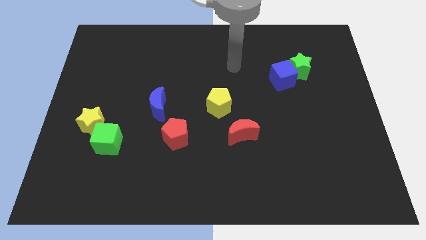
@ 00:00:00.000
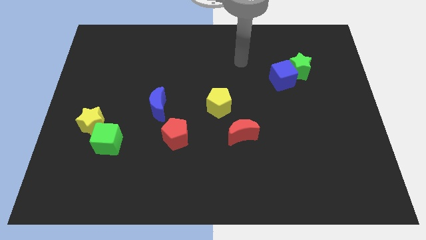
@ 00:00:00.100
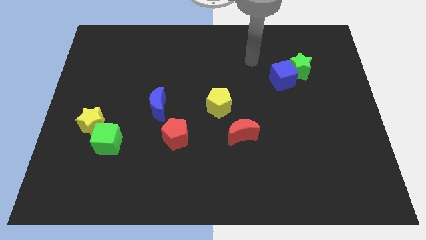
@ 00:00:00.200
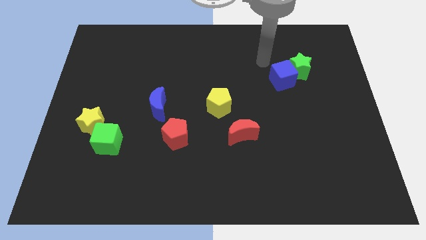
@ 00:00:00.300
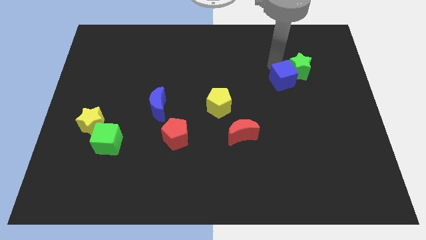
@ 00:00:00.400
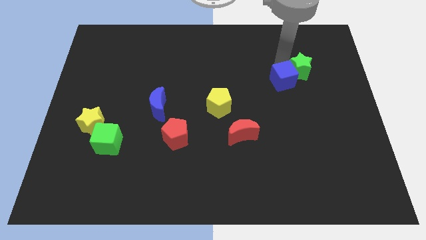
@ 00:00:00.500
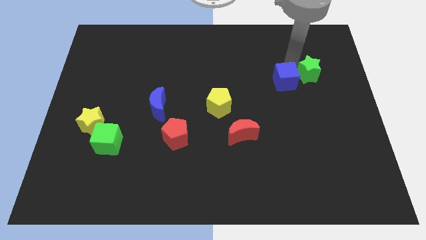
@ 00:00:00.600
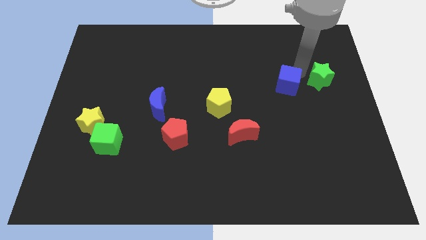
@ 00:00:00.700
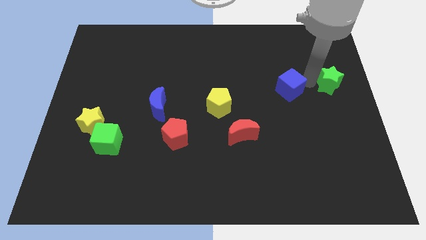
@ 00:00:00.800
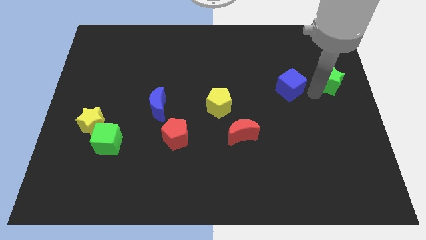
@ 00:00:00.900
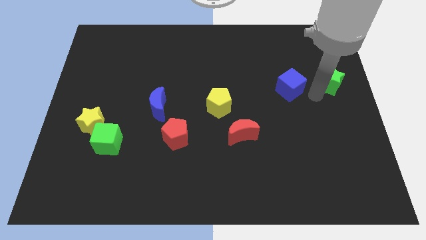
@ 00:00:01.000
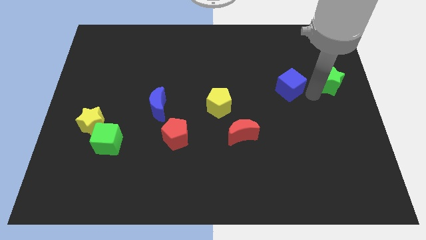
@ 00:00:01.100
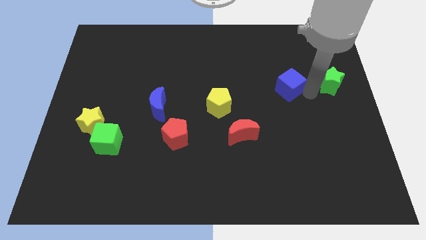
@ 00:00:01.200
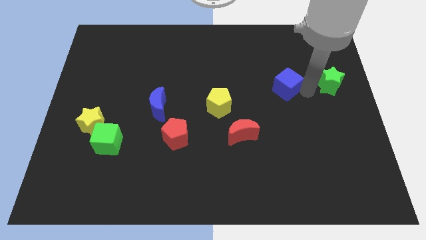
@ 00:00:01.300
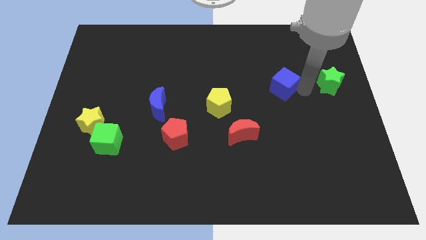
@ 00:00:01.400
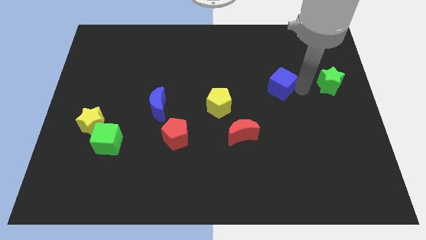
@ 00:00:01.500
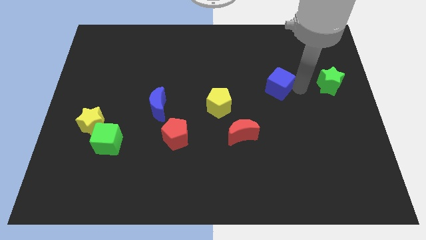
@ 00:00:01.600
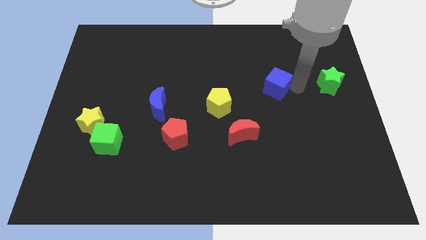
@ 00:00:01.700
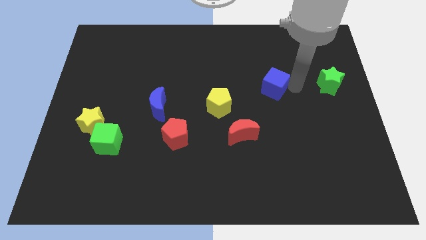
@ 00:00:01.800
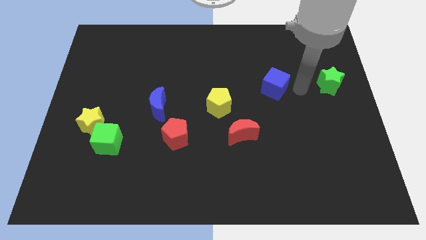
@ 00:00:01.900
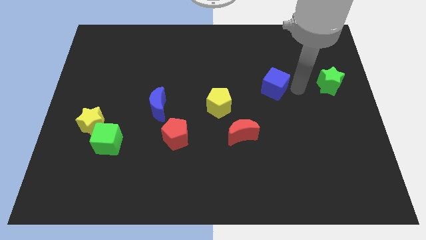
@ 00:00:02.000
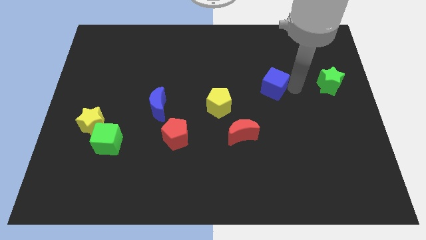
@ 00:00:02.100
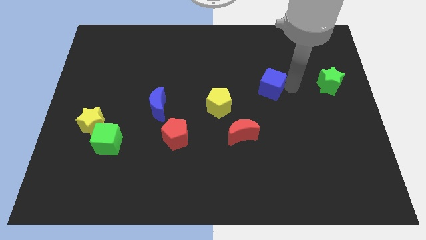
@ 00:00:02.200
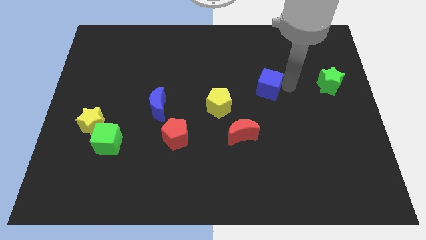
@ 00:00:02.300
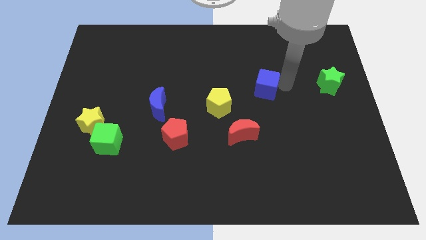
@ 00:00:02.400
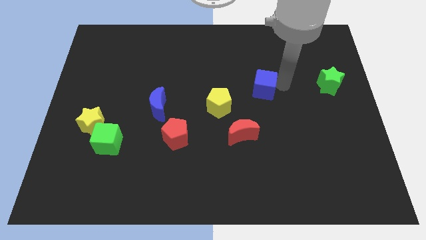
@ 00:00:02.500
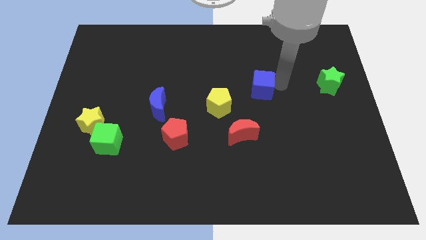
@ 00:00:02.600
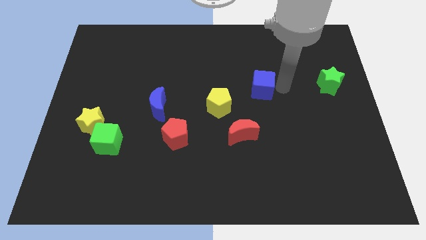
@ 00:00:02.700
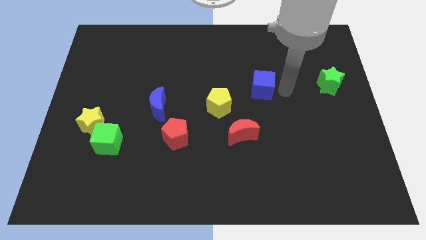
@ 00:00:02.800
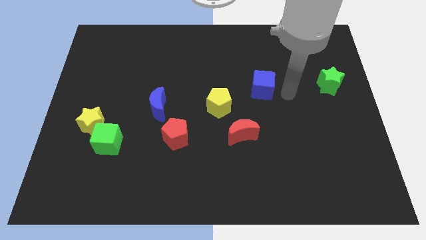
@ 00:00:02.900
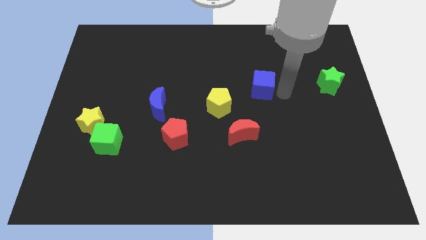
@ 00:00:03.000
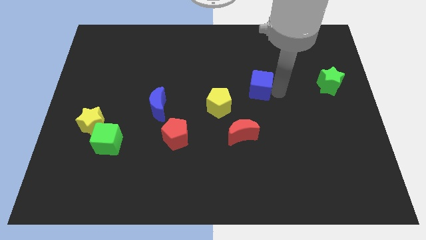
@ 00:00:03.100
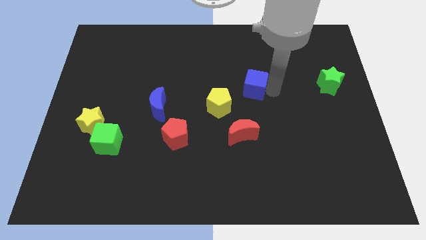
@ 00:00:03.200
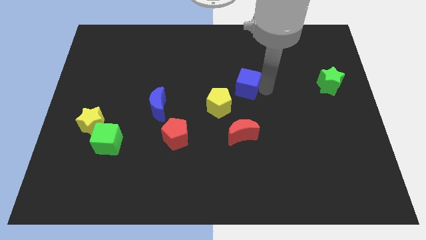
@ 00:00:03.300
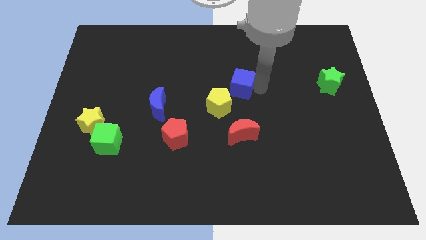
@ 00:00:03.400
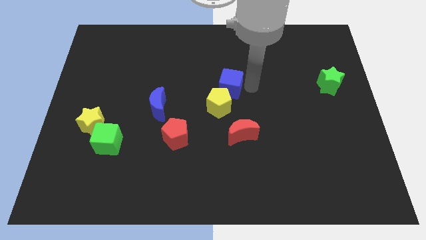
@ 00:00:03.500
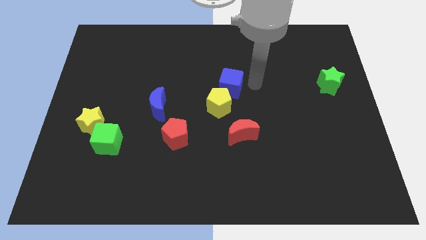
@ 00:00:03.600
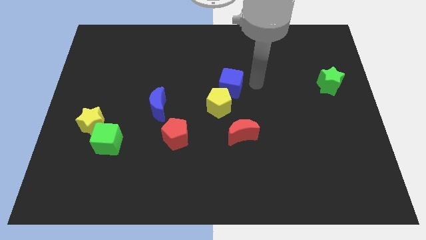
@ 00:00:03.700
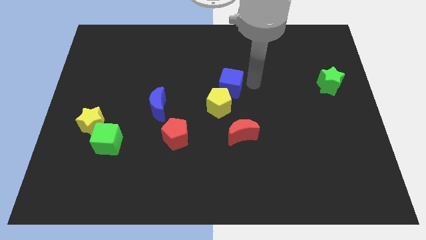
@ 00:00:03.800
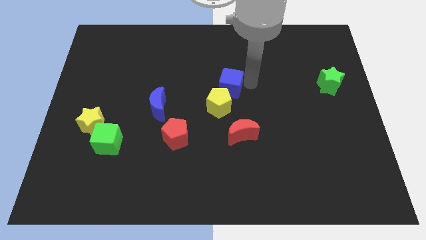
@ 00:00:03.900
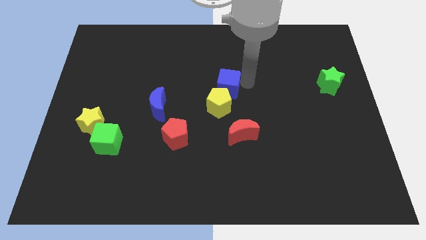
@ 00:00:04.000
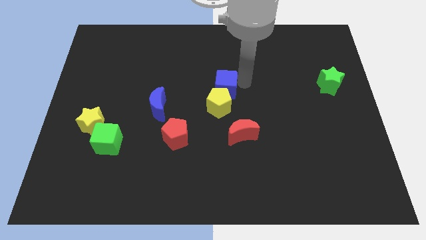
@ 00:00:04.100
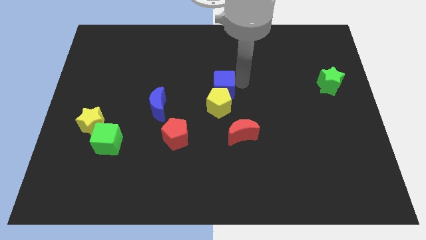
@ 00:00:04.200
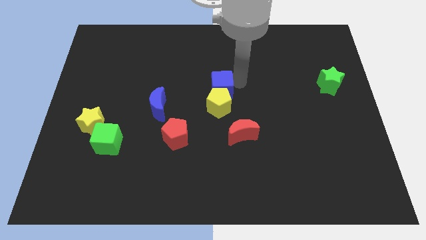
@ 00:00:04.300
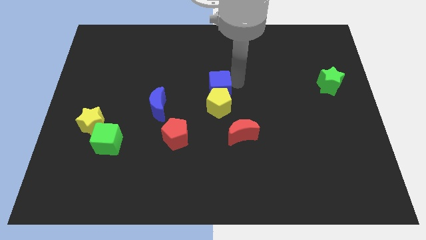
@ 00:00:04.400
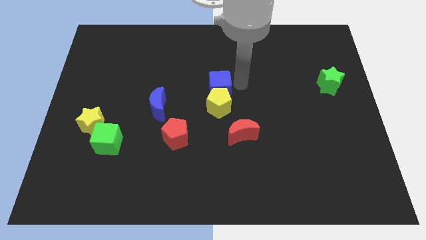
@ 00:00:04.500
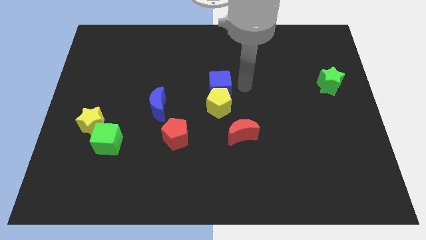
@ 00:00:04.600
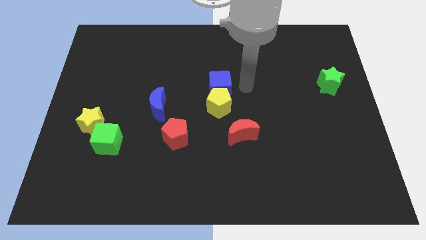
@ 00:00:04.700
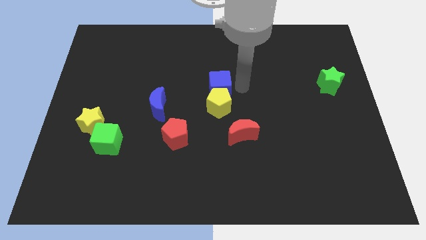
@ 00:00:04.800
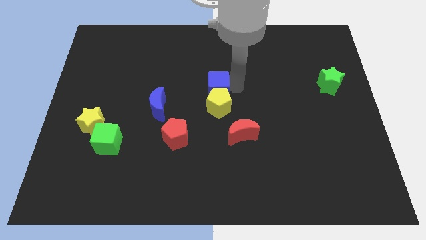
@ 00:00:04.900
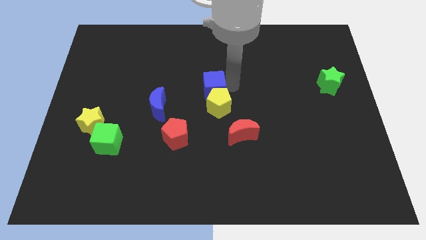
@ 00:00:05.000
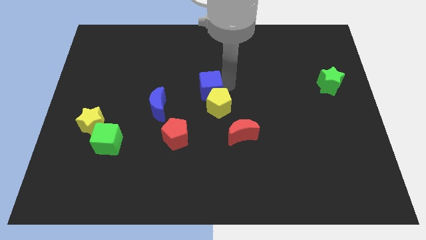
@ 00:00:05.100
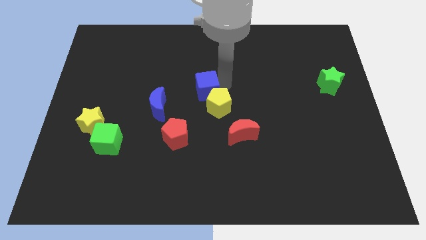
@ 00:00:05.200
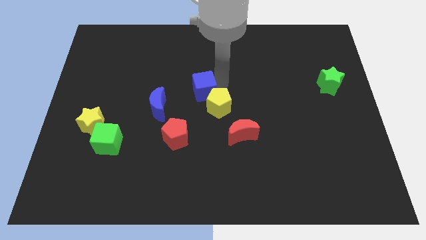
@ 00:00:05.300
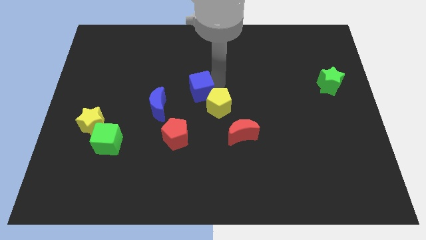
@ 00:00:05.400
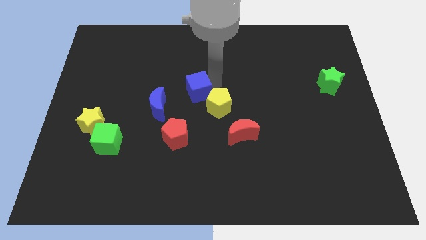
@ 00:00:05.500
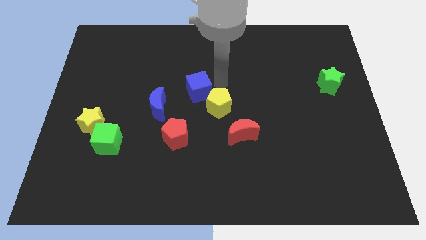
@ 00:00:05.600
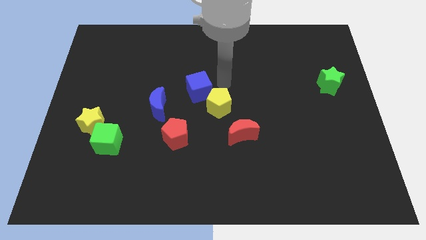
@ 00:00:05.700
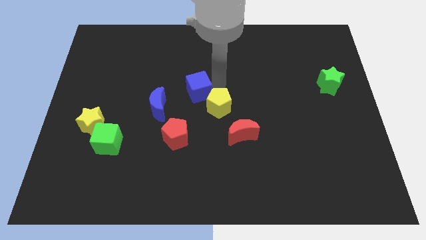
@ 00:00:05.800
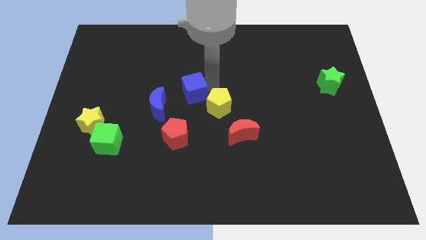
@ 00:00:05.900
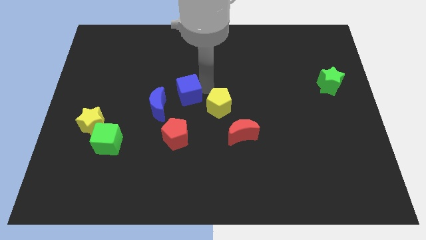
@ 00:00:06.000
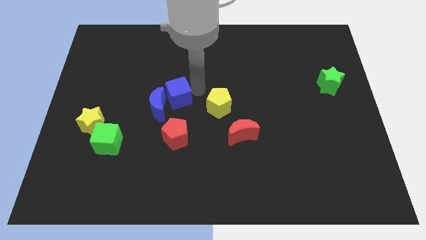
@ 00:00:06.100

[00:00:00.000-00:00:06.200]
push the blue cube next to the blue moon

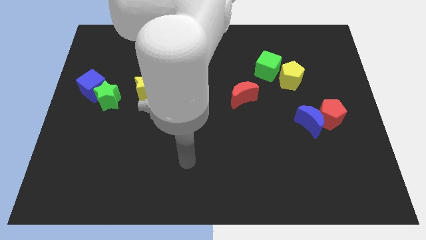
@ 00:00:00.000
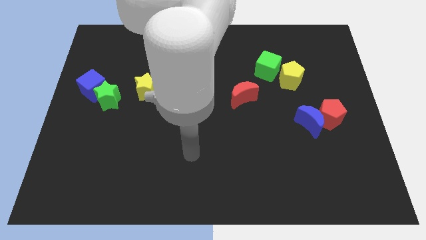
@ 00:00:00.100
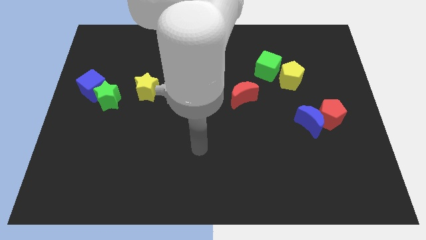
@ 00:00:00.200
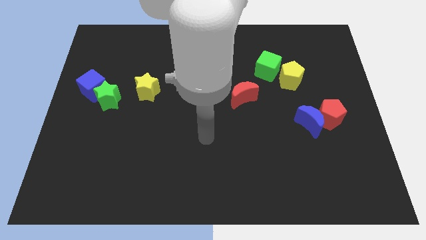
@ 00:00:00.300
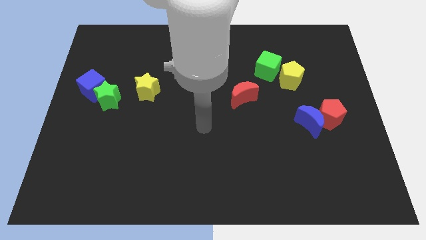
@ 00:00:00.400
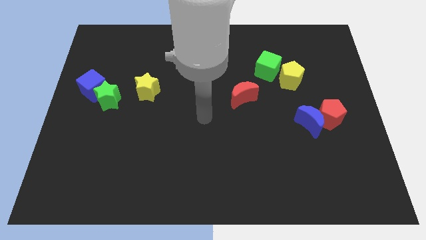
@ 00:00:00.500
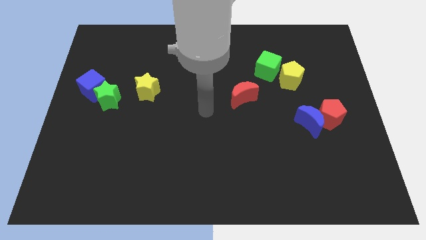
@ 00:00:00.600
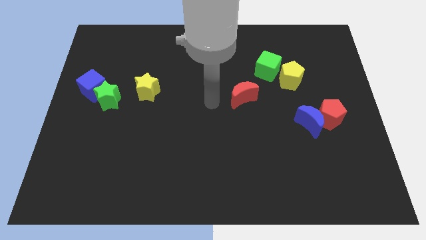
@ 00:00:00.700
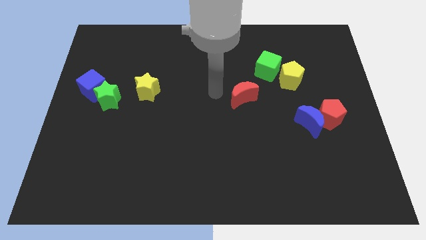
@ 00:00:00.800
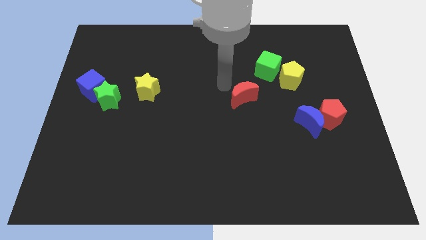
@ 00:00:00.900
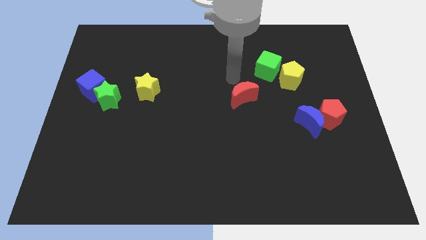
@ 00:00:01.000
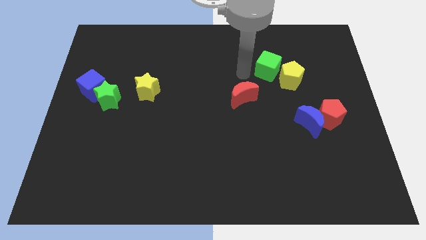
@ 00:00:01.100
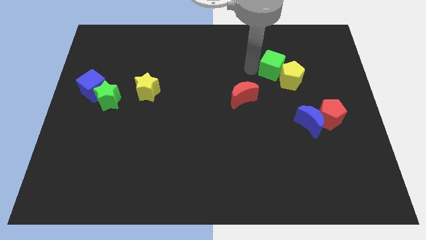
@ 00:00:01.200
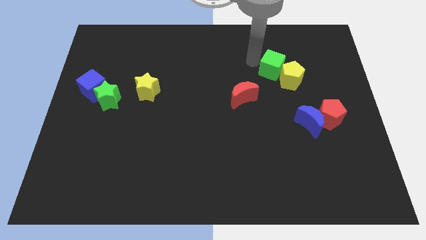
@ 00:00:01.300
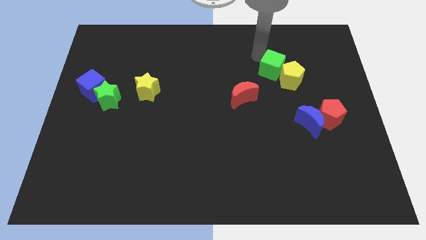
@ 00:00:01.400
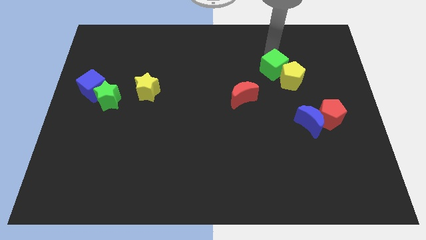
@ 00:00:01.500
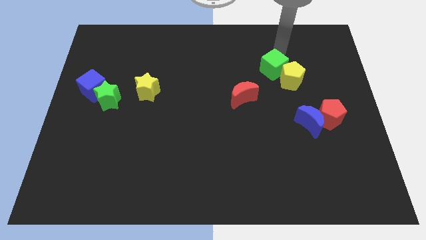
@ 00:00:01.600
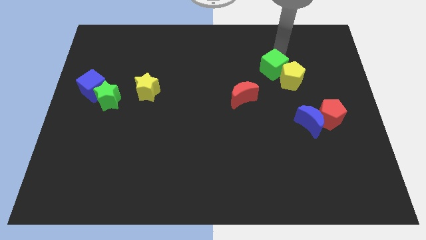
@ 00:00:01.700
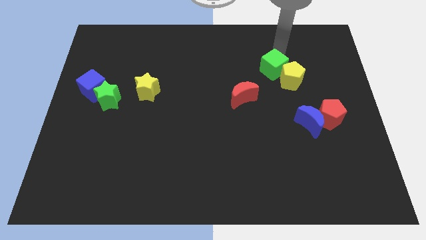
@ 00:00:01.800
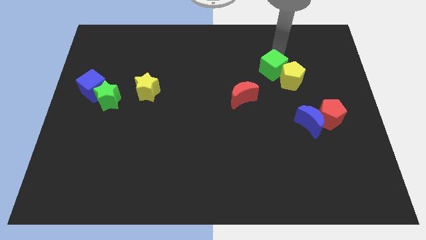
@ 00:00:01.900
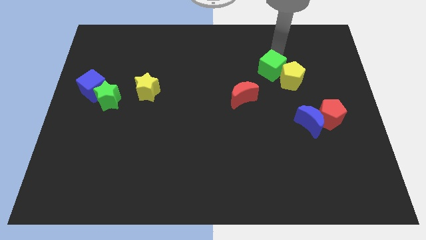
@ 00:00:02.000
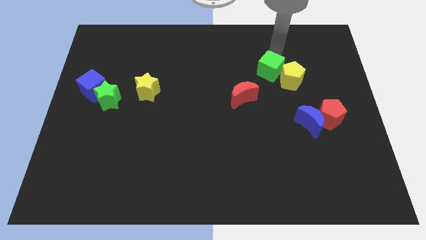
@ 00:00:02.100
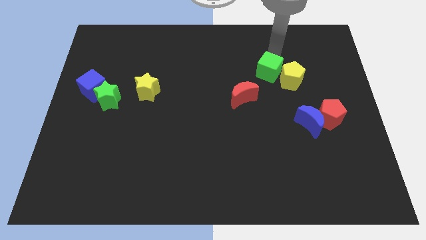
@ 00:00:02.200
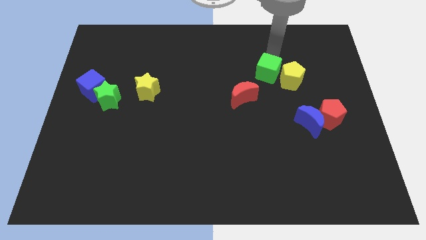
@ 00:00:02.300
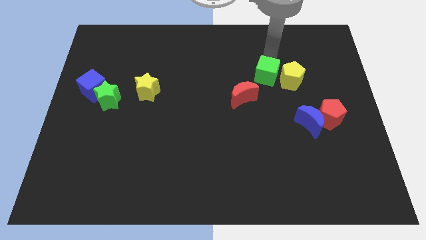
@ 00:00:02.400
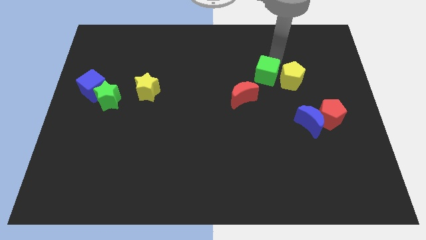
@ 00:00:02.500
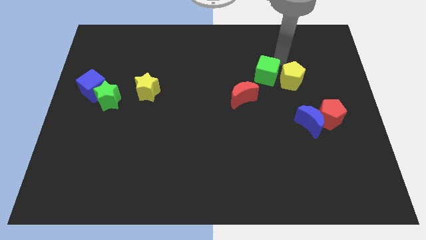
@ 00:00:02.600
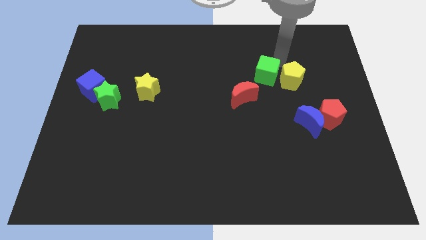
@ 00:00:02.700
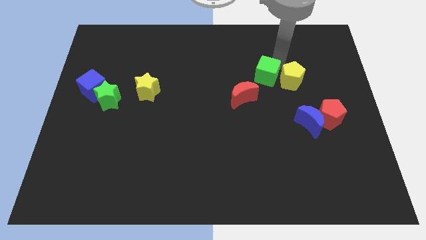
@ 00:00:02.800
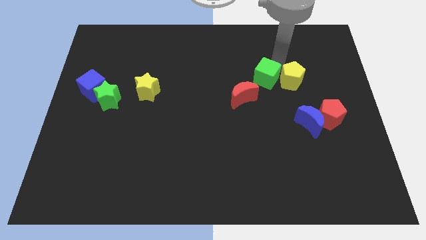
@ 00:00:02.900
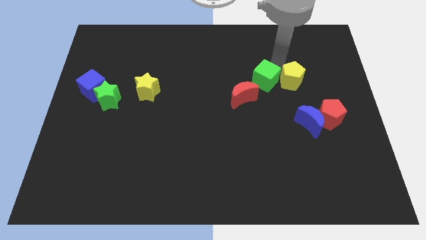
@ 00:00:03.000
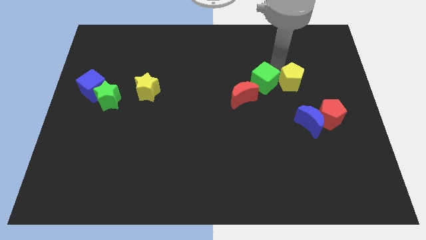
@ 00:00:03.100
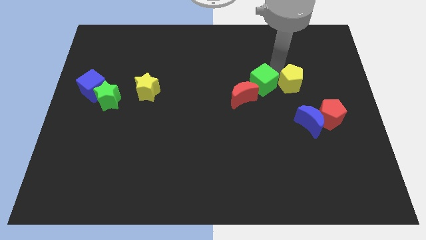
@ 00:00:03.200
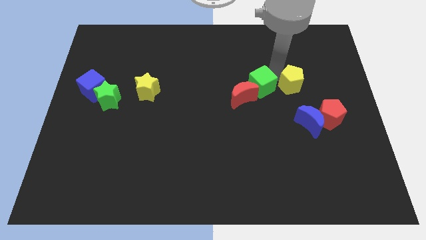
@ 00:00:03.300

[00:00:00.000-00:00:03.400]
push the green cube close to the red moon
